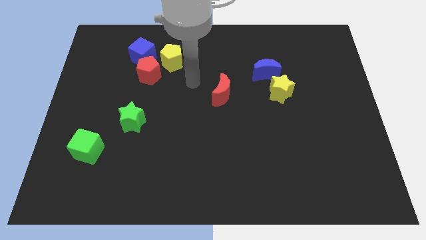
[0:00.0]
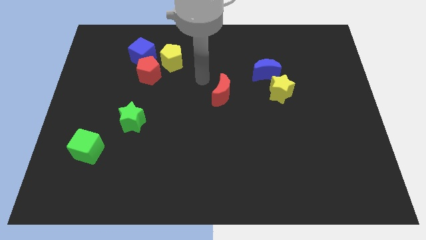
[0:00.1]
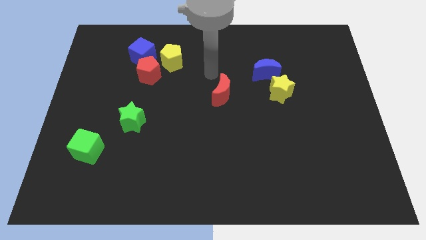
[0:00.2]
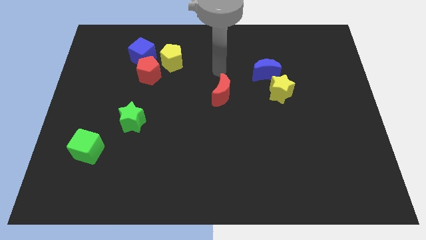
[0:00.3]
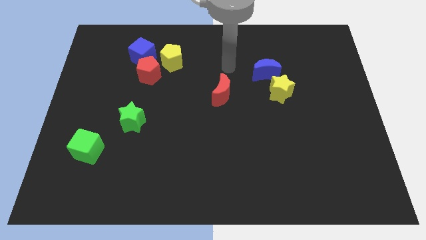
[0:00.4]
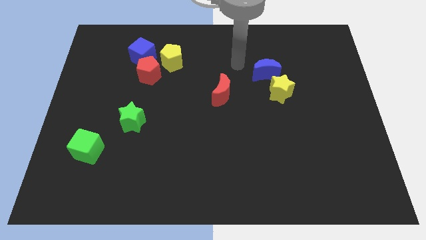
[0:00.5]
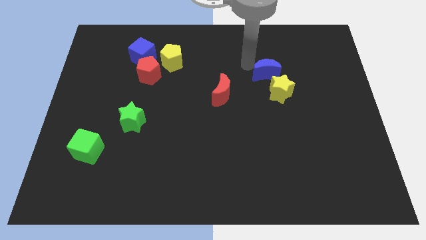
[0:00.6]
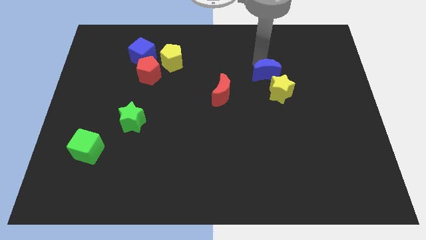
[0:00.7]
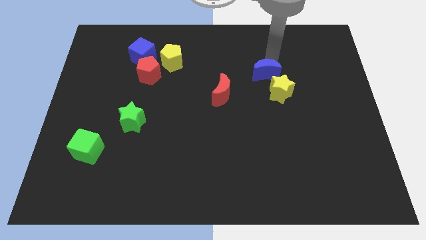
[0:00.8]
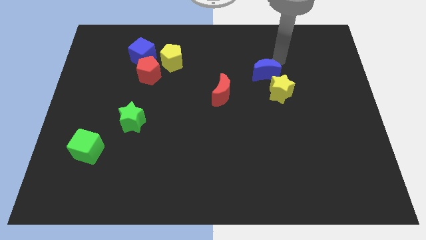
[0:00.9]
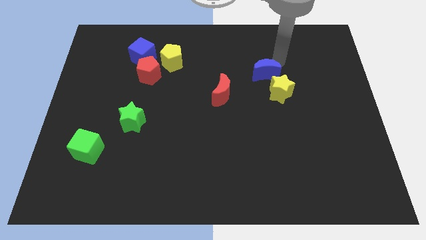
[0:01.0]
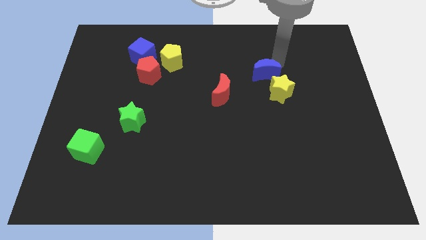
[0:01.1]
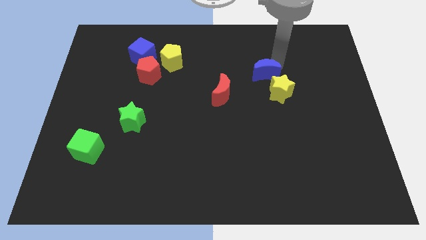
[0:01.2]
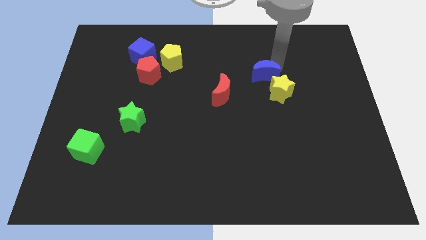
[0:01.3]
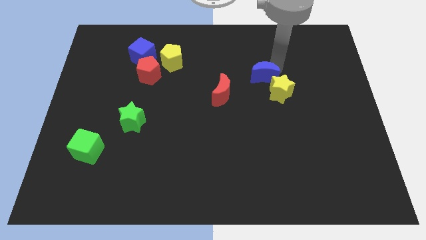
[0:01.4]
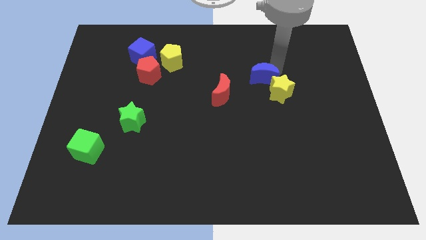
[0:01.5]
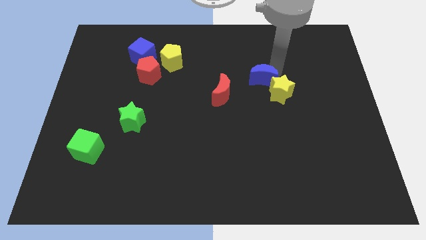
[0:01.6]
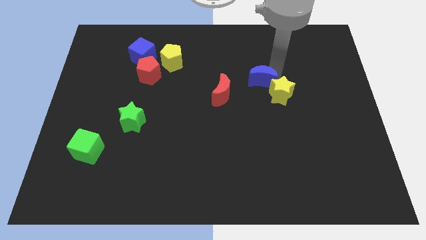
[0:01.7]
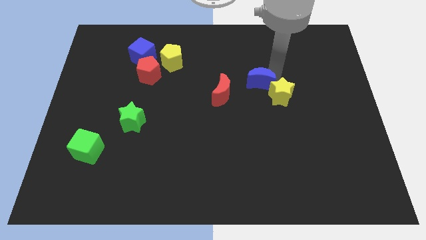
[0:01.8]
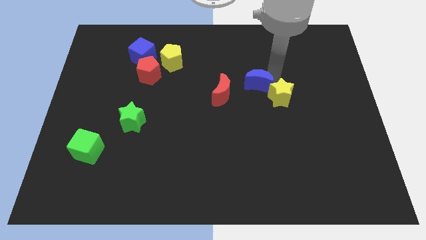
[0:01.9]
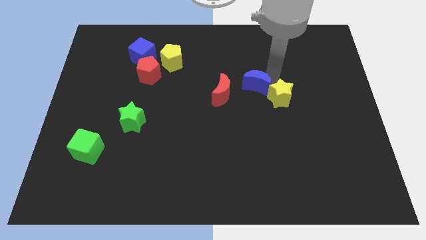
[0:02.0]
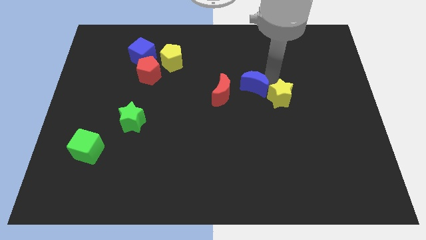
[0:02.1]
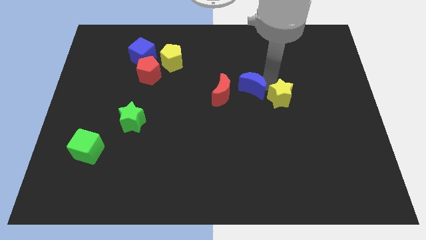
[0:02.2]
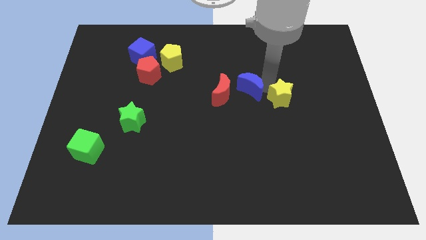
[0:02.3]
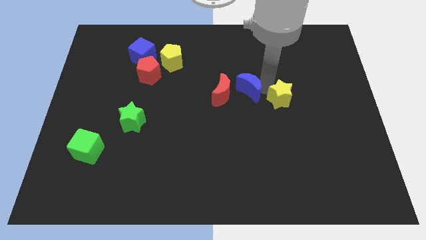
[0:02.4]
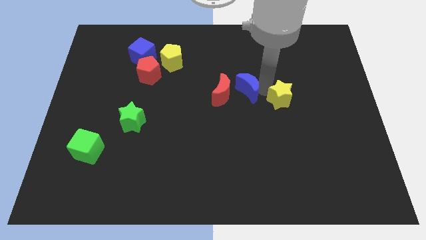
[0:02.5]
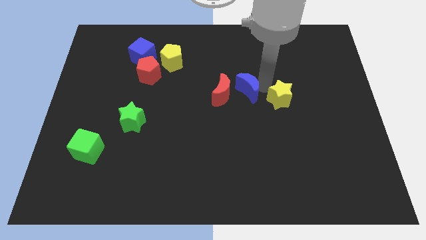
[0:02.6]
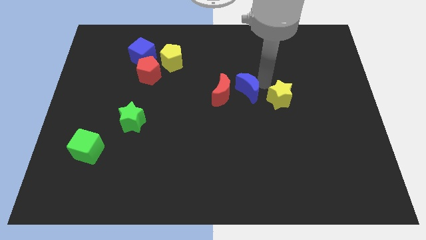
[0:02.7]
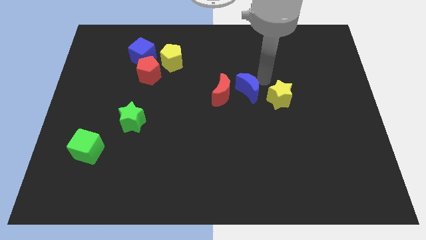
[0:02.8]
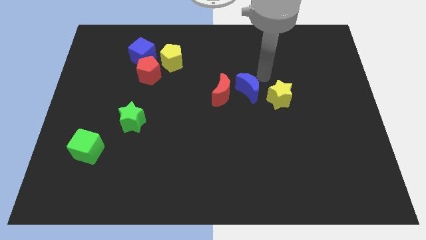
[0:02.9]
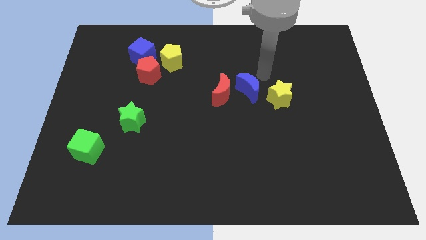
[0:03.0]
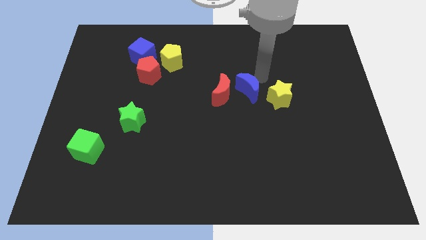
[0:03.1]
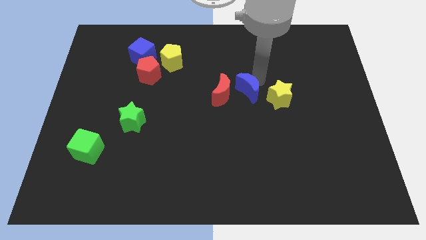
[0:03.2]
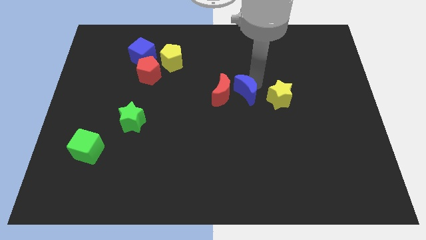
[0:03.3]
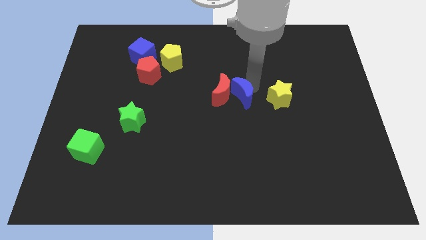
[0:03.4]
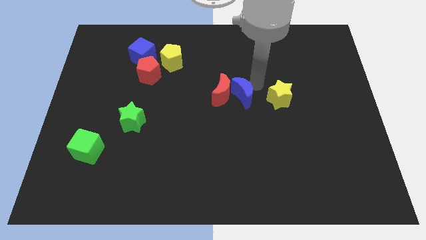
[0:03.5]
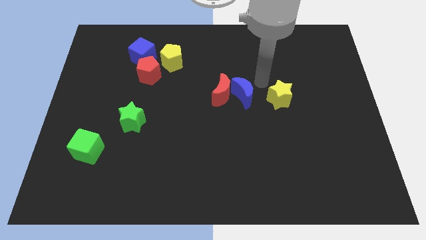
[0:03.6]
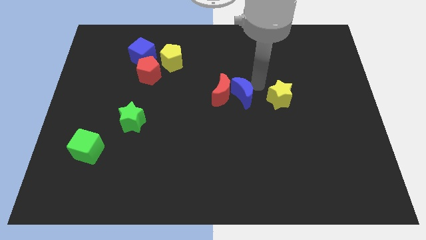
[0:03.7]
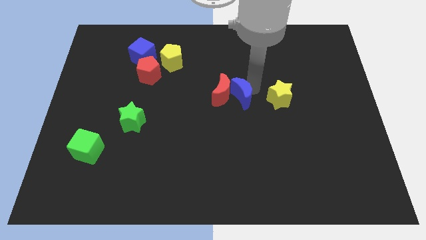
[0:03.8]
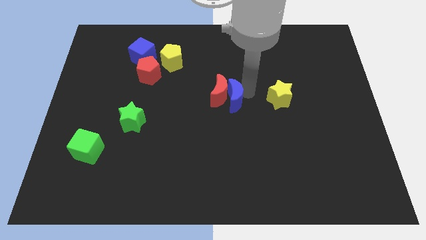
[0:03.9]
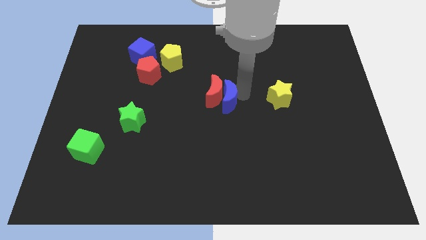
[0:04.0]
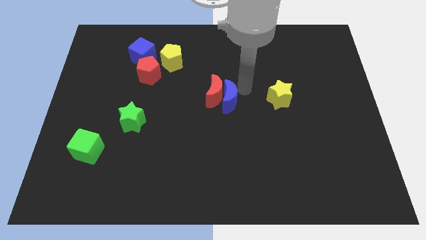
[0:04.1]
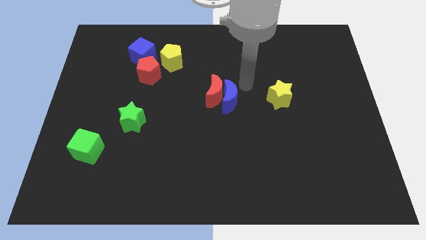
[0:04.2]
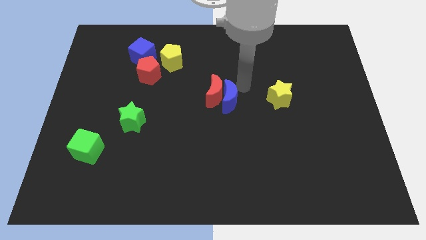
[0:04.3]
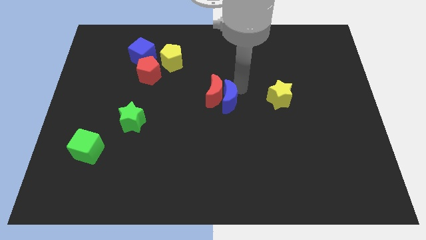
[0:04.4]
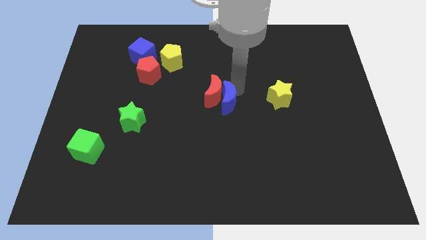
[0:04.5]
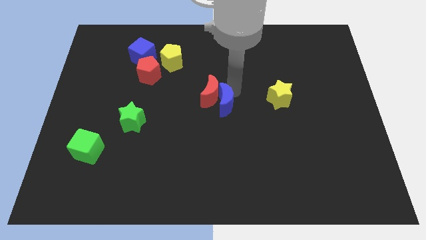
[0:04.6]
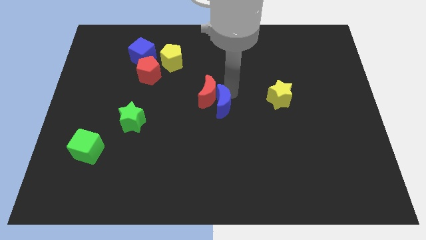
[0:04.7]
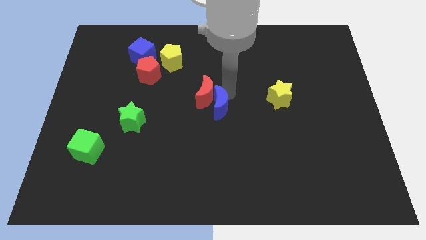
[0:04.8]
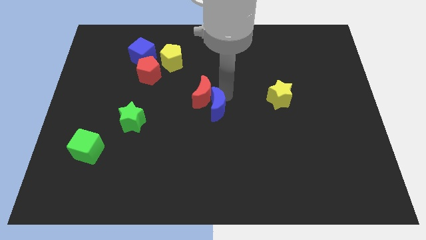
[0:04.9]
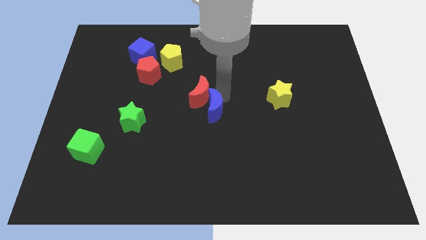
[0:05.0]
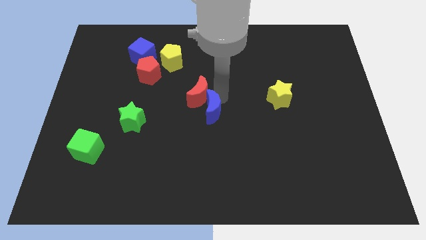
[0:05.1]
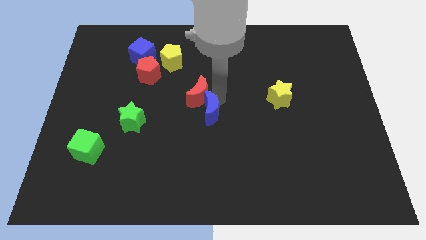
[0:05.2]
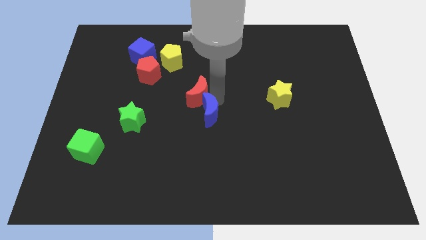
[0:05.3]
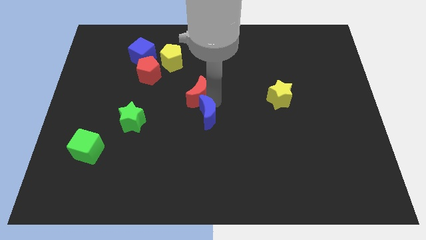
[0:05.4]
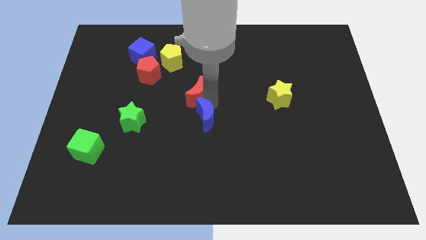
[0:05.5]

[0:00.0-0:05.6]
move the blue moon downwards and left diagonally

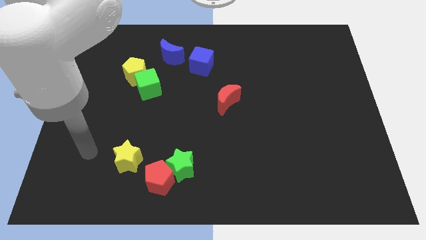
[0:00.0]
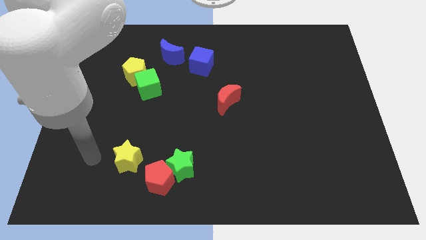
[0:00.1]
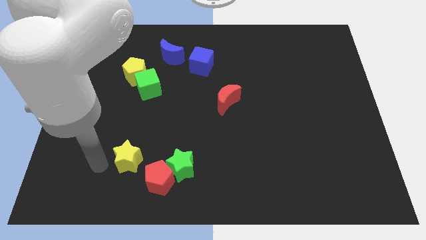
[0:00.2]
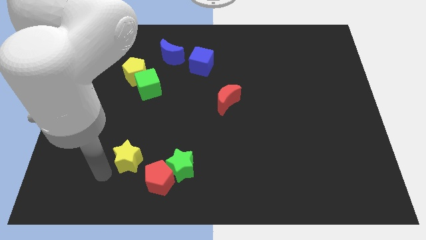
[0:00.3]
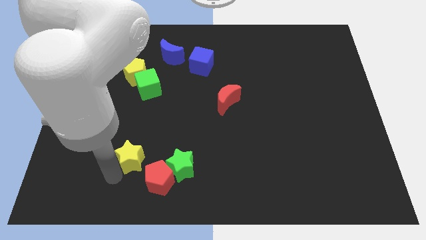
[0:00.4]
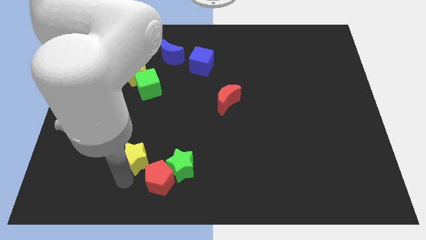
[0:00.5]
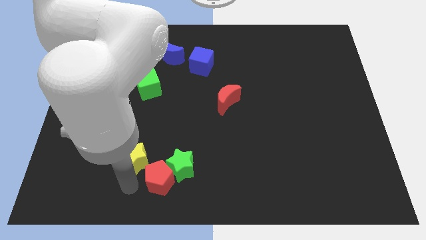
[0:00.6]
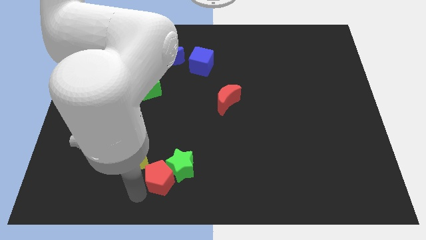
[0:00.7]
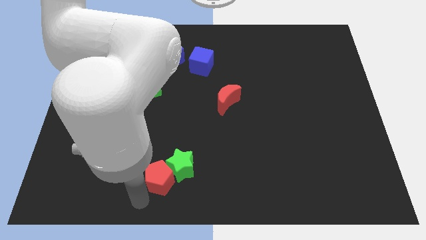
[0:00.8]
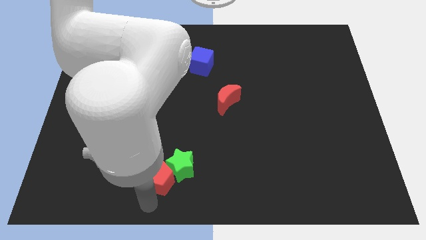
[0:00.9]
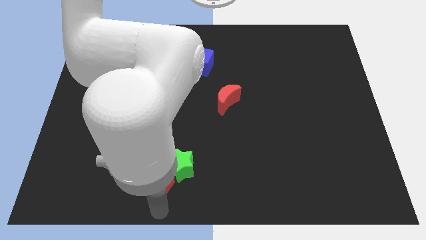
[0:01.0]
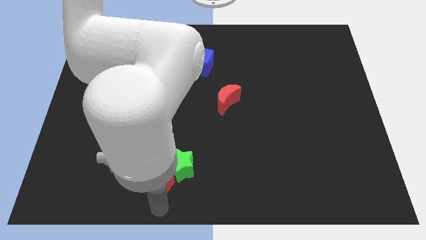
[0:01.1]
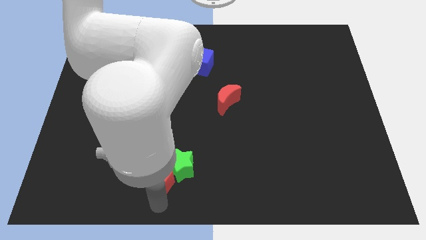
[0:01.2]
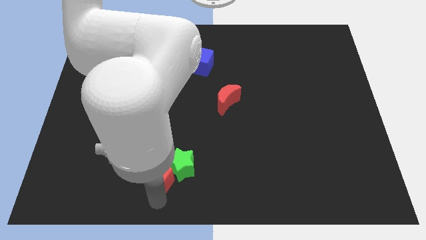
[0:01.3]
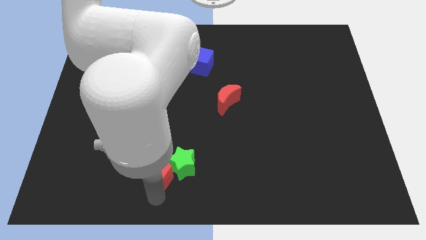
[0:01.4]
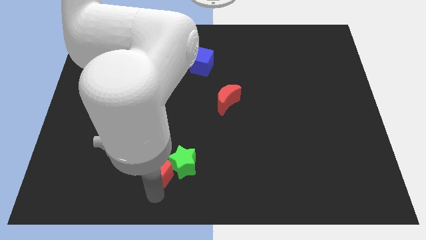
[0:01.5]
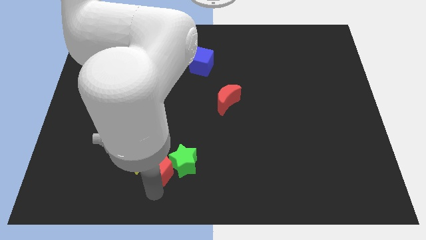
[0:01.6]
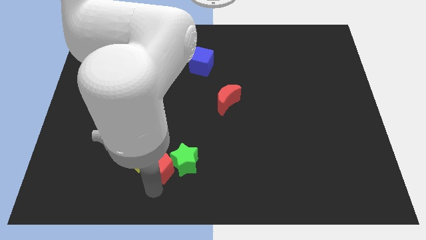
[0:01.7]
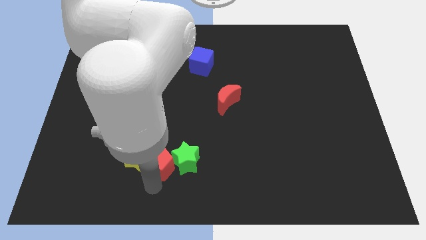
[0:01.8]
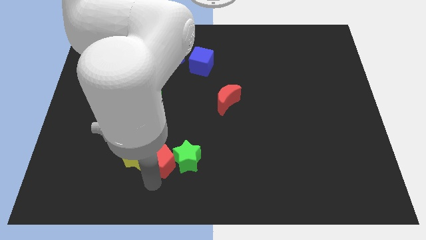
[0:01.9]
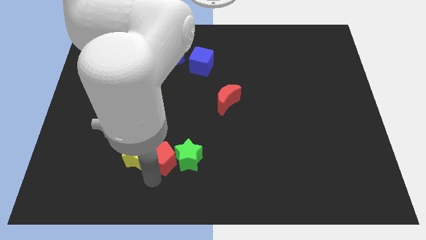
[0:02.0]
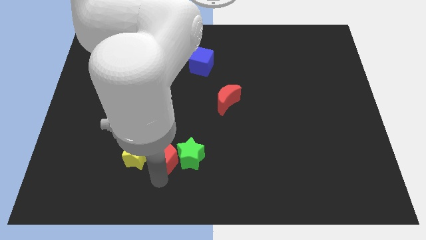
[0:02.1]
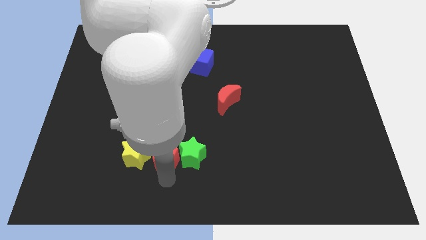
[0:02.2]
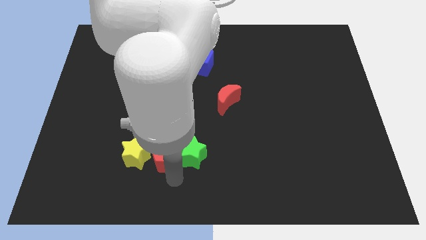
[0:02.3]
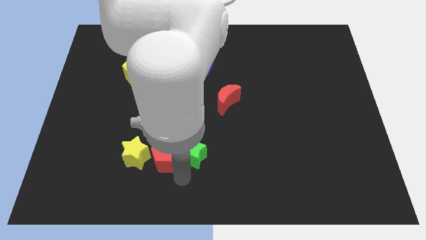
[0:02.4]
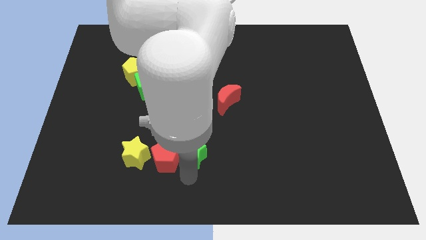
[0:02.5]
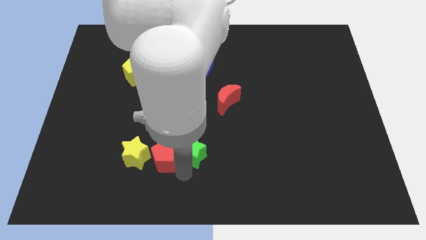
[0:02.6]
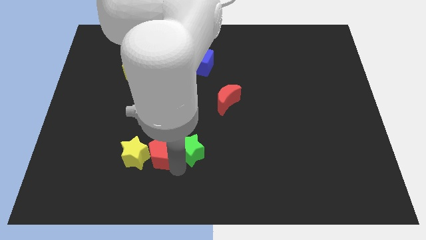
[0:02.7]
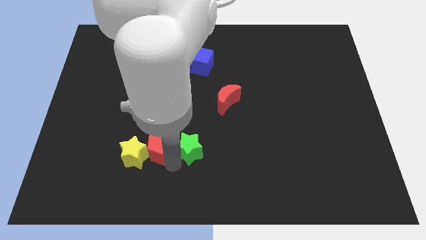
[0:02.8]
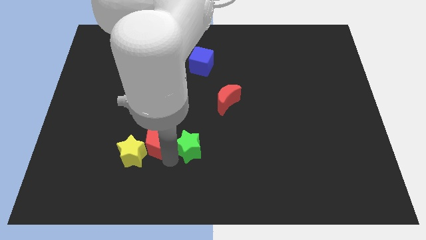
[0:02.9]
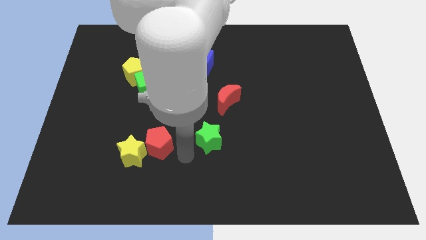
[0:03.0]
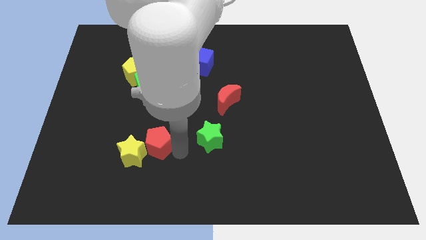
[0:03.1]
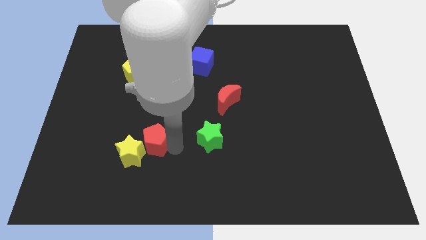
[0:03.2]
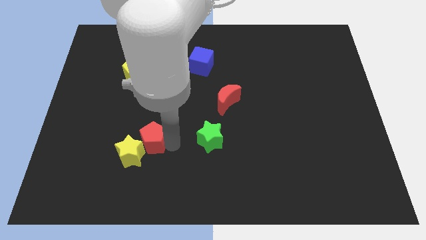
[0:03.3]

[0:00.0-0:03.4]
move the red pentagon somewhat upwards and left
